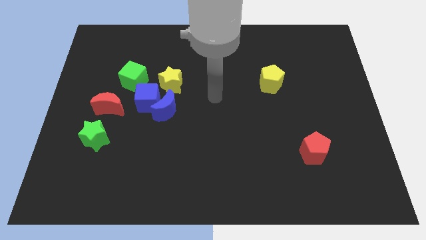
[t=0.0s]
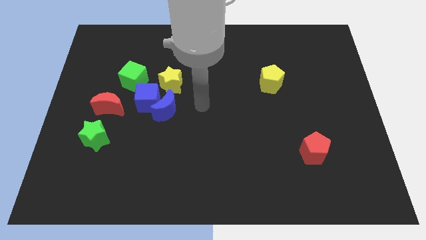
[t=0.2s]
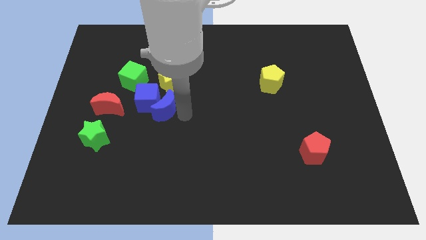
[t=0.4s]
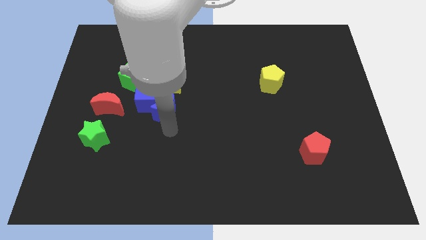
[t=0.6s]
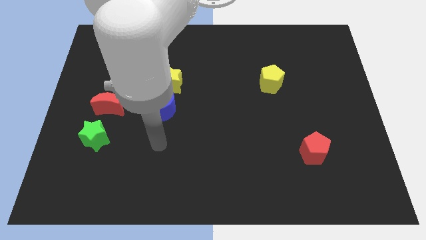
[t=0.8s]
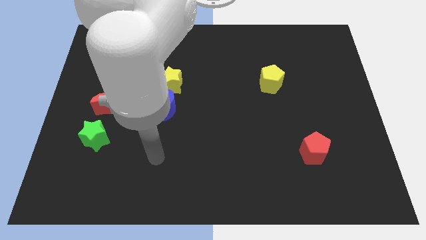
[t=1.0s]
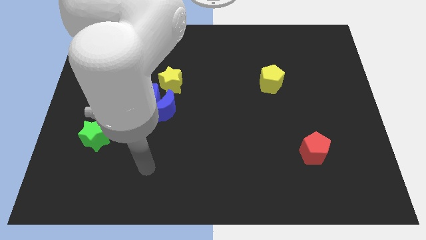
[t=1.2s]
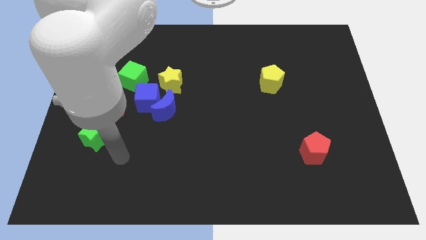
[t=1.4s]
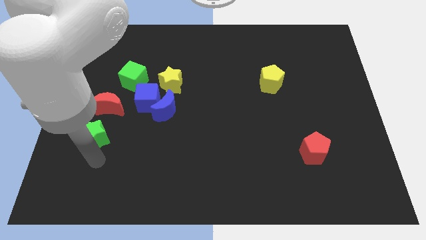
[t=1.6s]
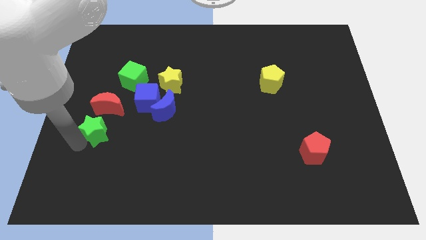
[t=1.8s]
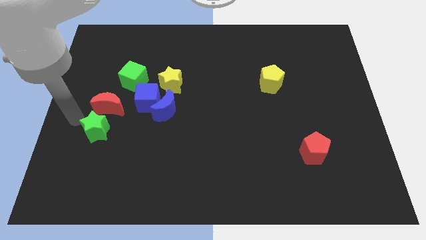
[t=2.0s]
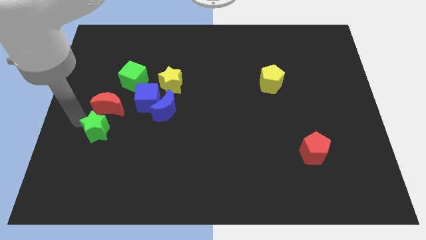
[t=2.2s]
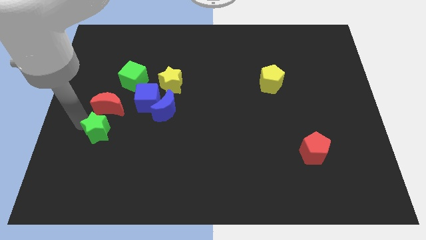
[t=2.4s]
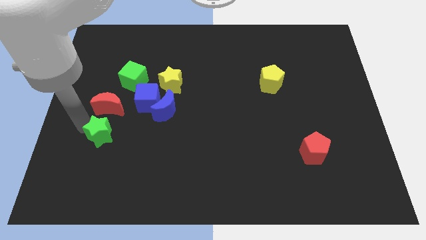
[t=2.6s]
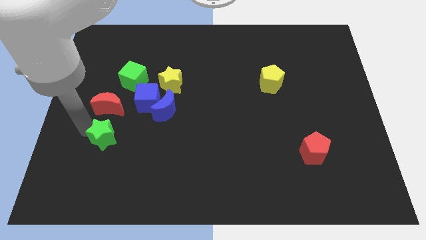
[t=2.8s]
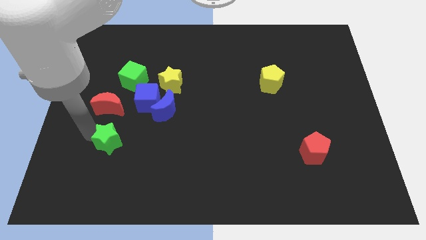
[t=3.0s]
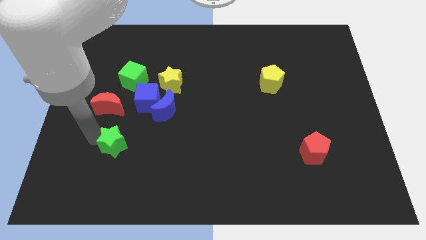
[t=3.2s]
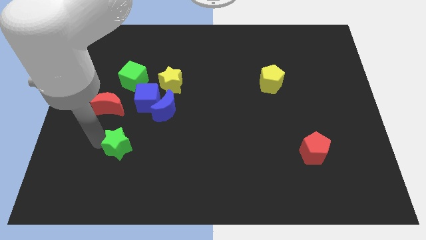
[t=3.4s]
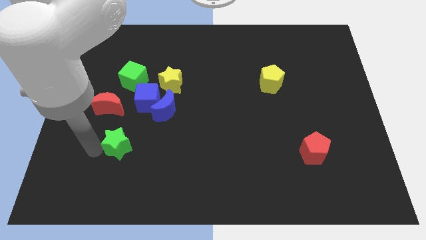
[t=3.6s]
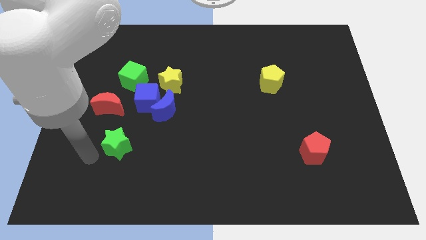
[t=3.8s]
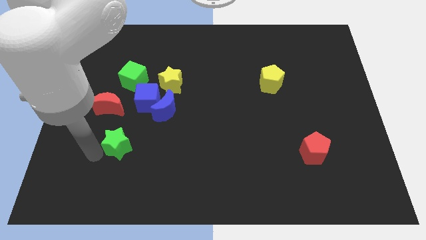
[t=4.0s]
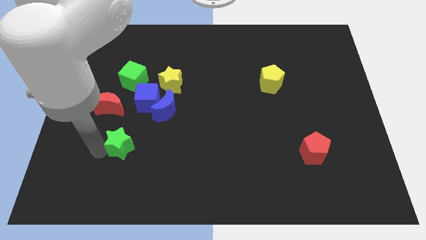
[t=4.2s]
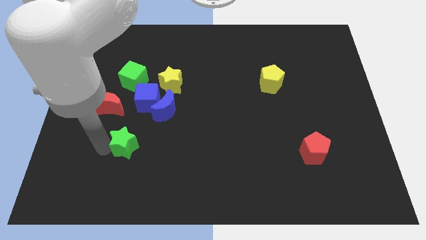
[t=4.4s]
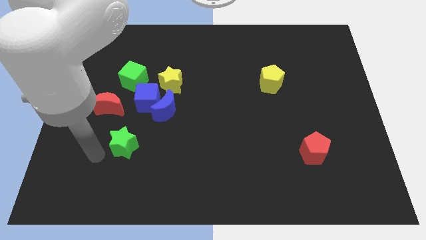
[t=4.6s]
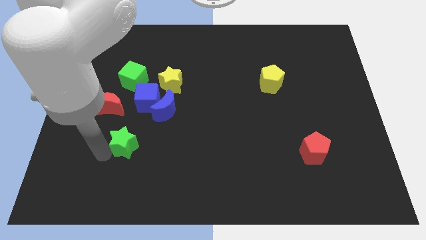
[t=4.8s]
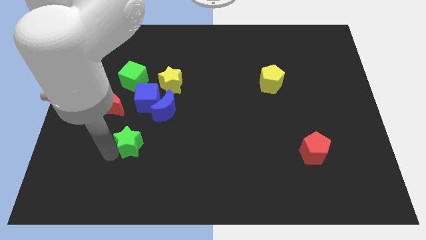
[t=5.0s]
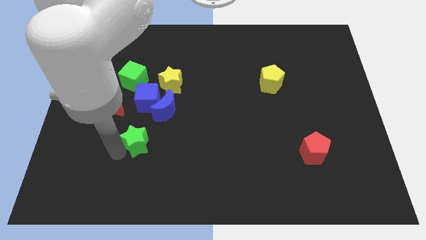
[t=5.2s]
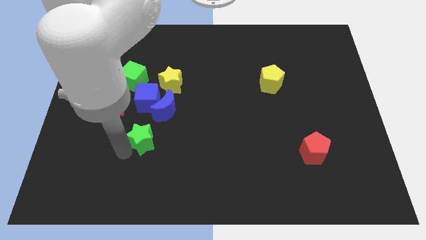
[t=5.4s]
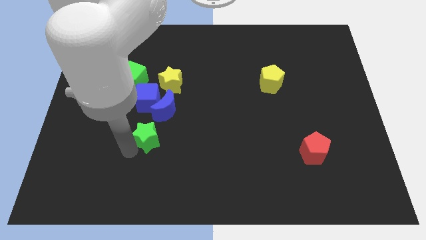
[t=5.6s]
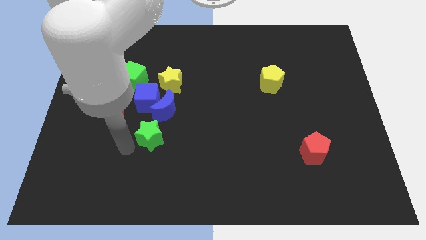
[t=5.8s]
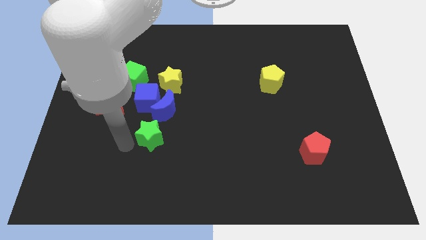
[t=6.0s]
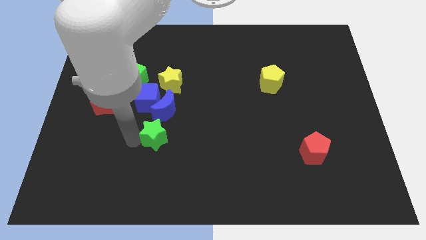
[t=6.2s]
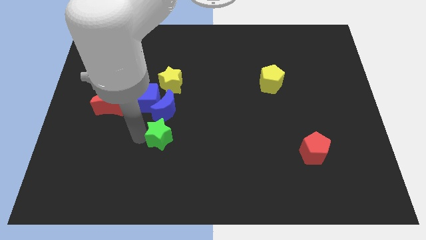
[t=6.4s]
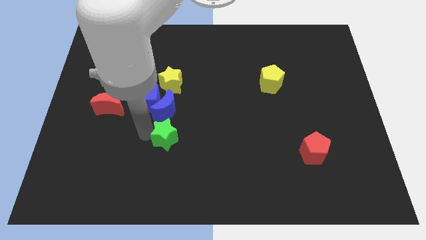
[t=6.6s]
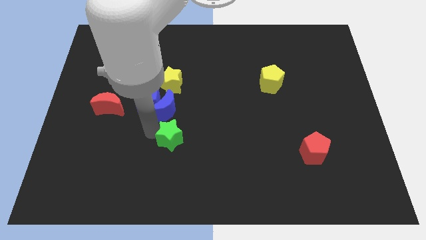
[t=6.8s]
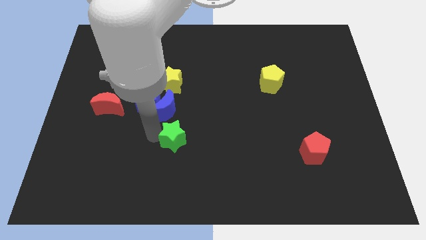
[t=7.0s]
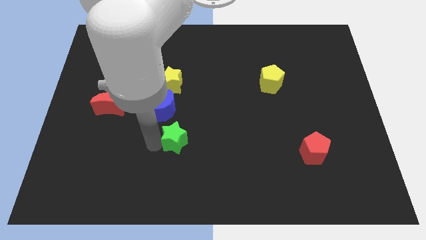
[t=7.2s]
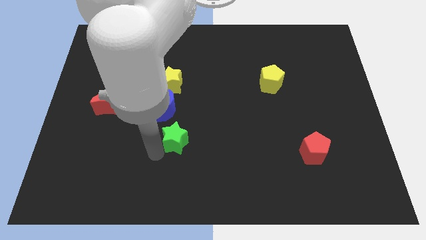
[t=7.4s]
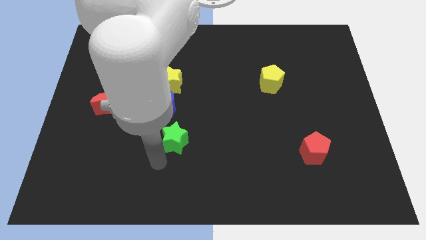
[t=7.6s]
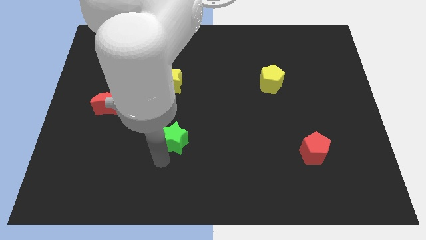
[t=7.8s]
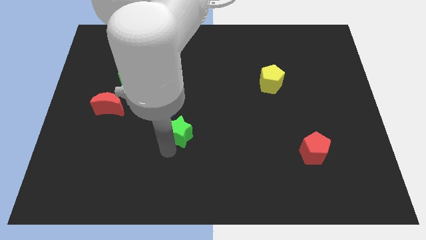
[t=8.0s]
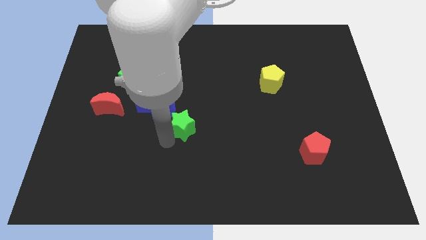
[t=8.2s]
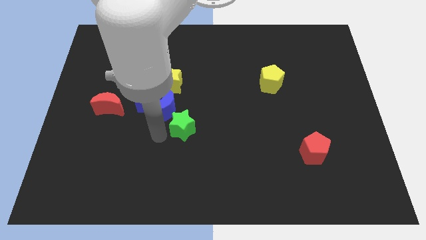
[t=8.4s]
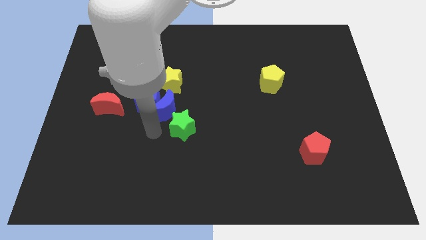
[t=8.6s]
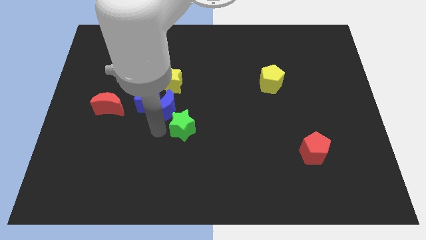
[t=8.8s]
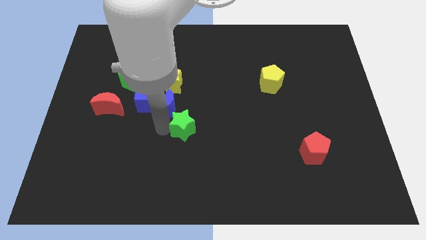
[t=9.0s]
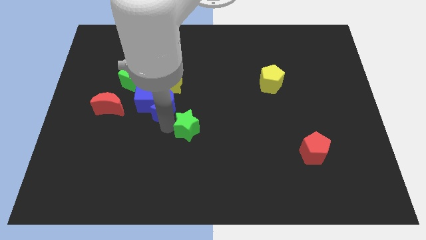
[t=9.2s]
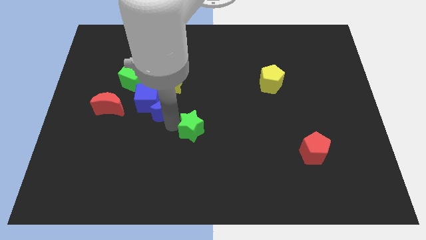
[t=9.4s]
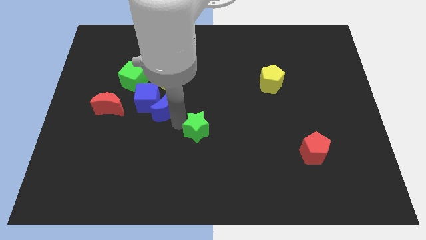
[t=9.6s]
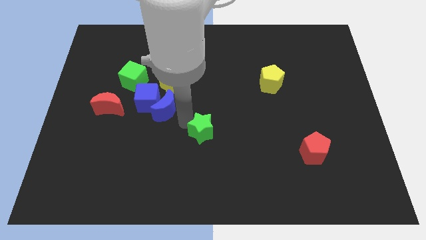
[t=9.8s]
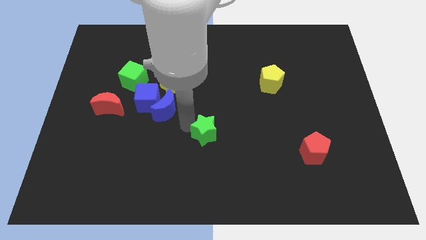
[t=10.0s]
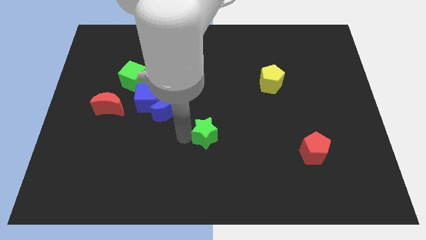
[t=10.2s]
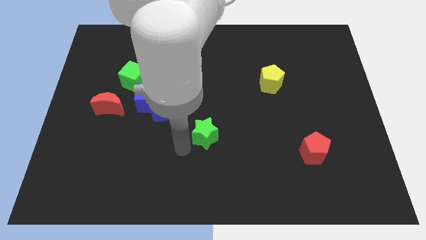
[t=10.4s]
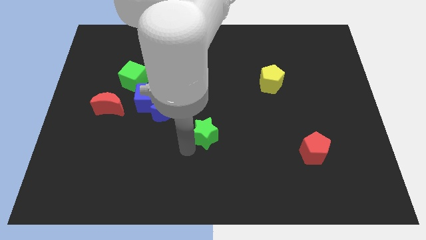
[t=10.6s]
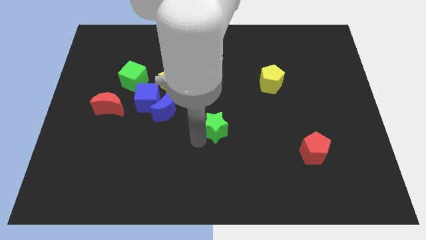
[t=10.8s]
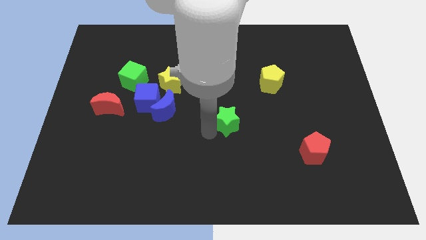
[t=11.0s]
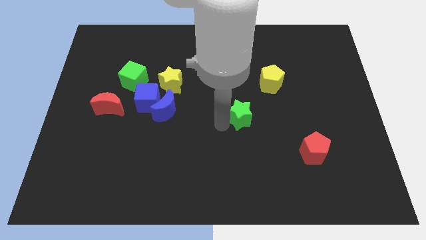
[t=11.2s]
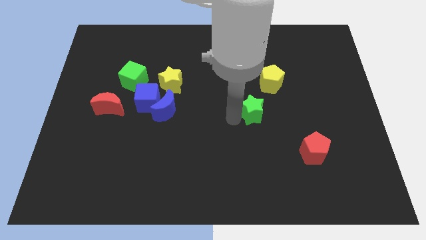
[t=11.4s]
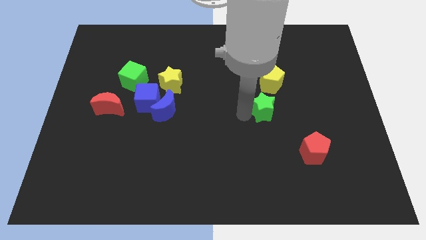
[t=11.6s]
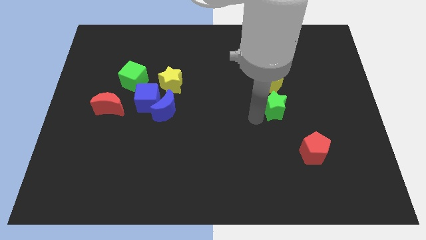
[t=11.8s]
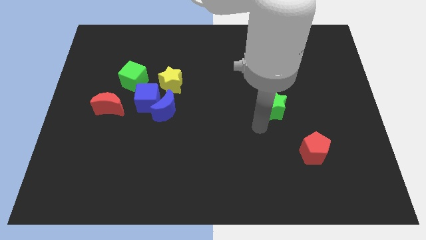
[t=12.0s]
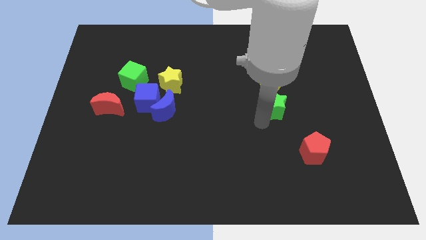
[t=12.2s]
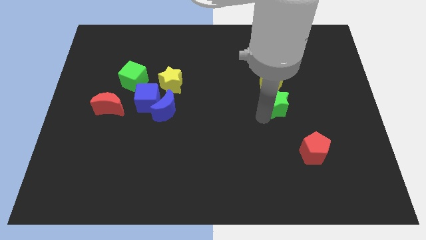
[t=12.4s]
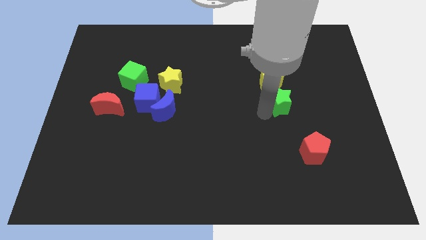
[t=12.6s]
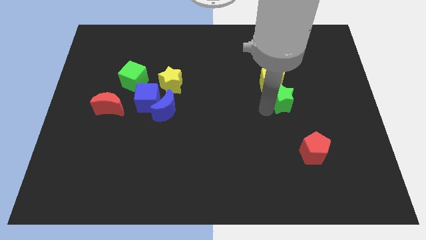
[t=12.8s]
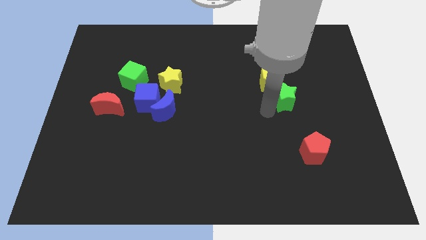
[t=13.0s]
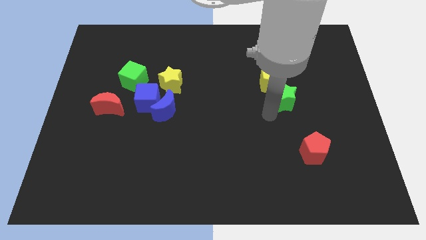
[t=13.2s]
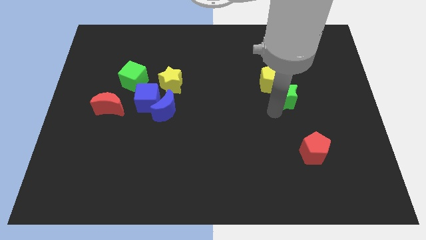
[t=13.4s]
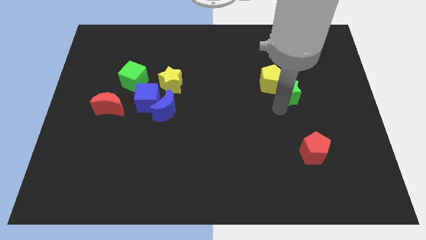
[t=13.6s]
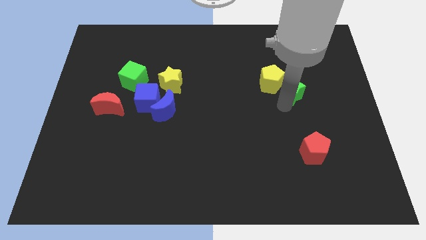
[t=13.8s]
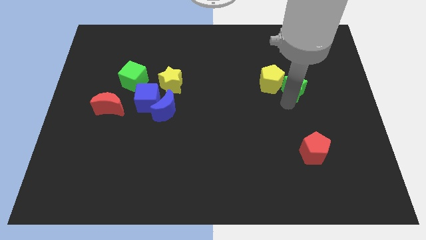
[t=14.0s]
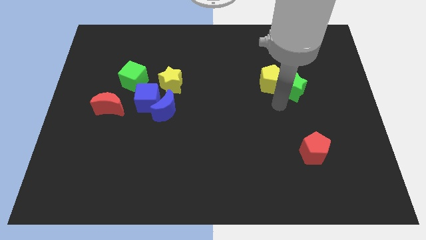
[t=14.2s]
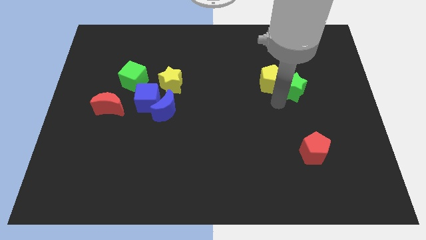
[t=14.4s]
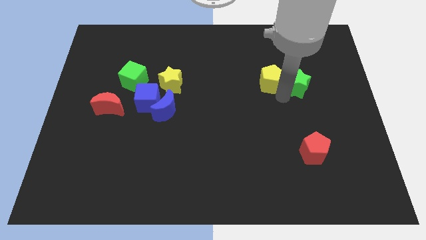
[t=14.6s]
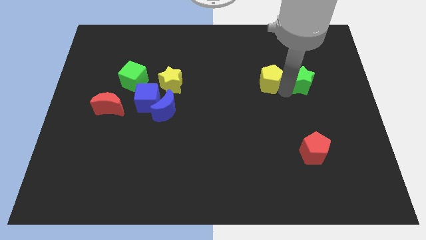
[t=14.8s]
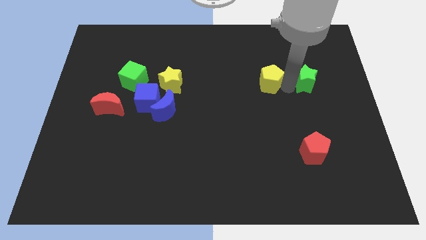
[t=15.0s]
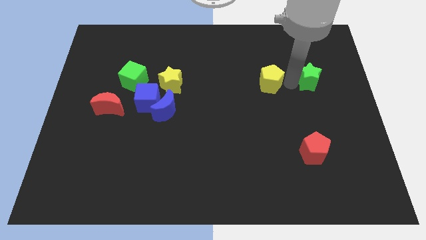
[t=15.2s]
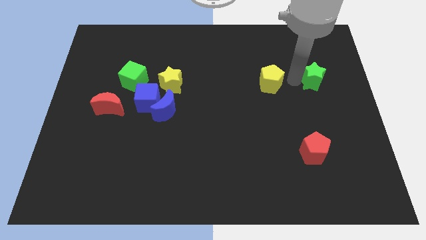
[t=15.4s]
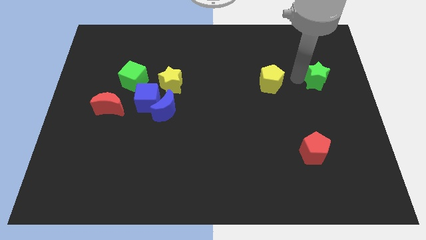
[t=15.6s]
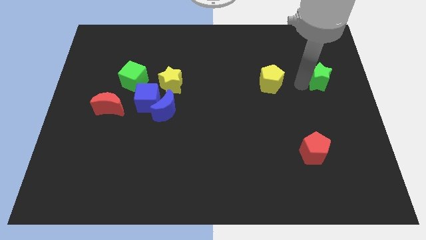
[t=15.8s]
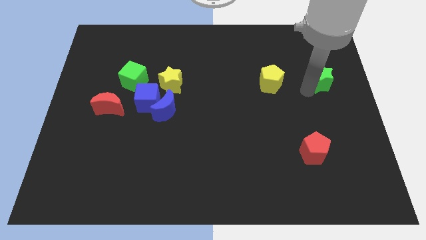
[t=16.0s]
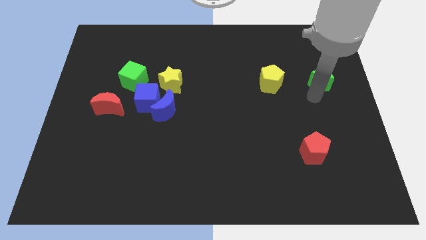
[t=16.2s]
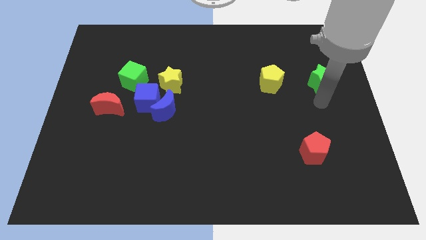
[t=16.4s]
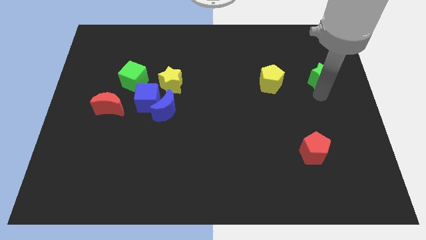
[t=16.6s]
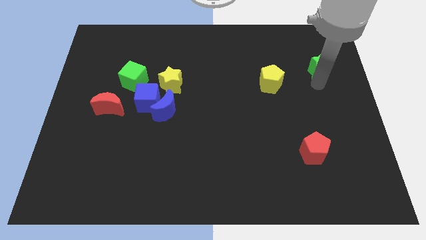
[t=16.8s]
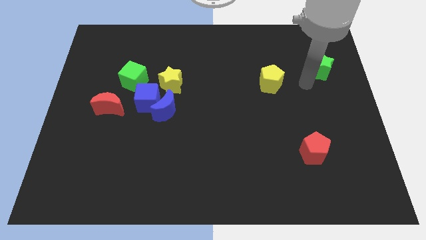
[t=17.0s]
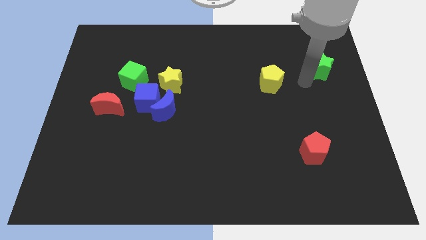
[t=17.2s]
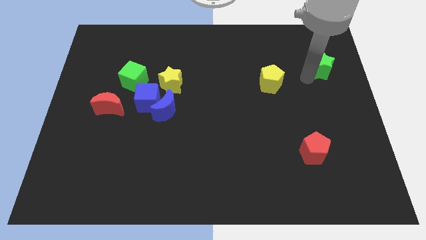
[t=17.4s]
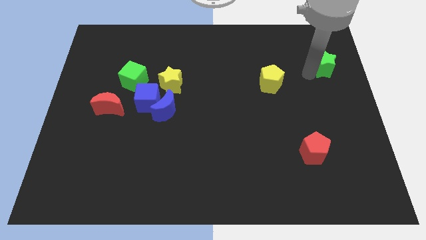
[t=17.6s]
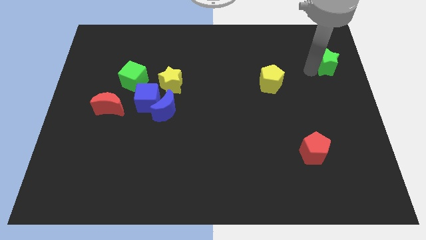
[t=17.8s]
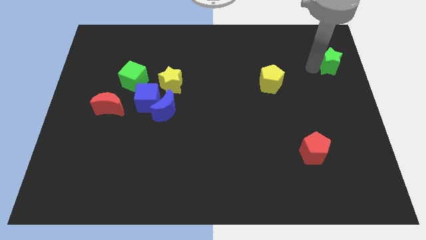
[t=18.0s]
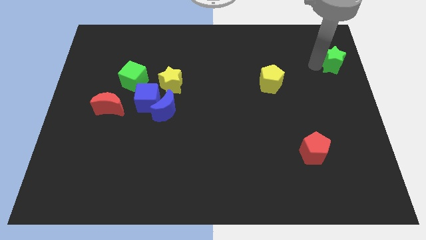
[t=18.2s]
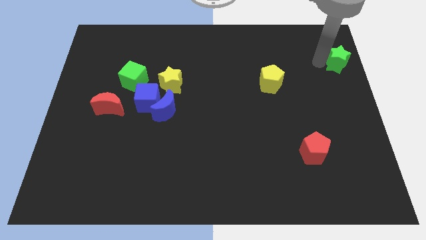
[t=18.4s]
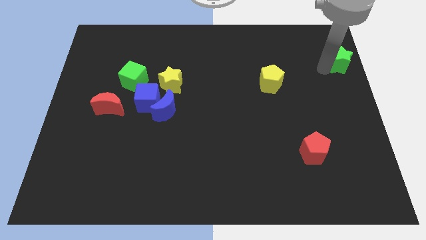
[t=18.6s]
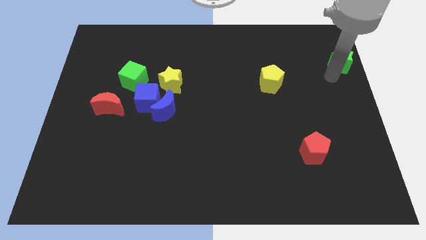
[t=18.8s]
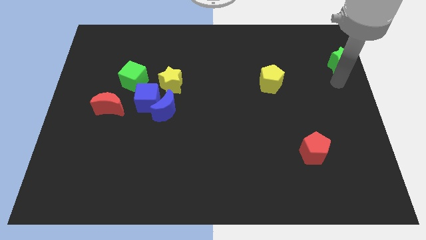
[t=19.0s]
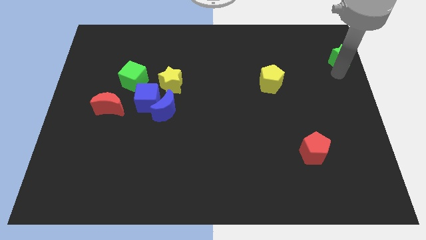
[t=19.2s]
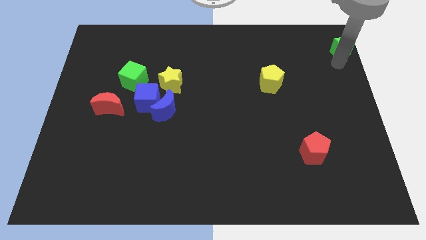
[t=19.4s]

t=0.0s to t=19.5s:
slide the green star to the top right
